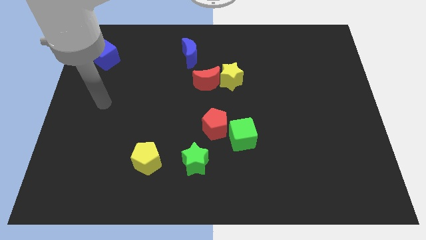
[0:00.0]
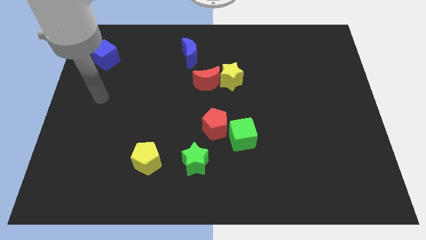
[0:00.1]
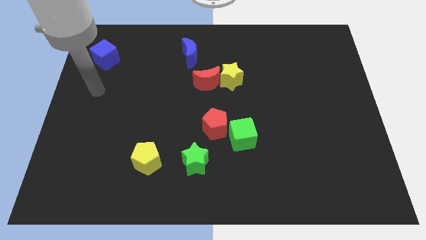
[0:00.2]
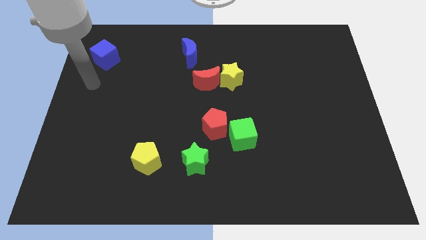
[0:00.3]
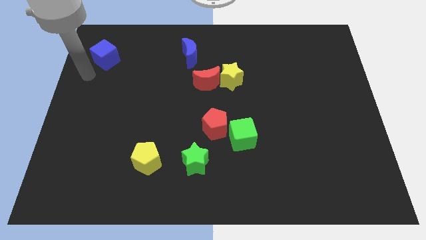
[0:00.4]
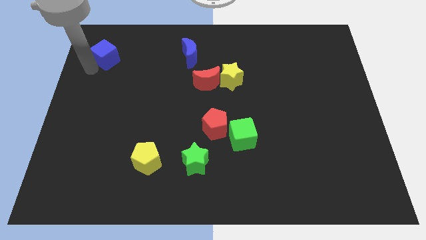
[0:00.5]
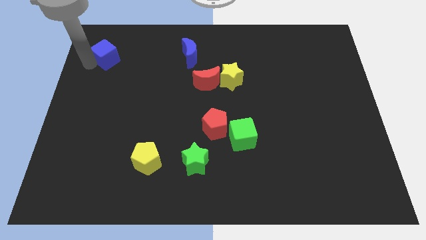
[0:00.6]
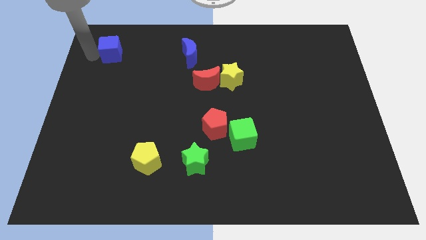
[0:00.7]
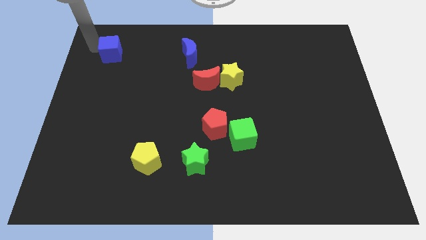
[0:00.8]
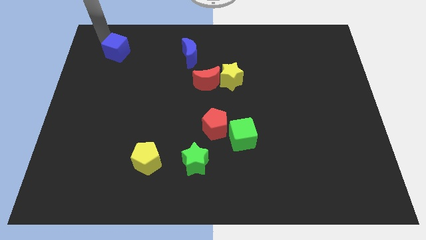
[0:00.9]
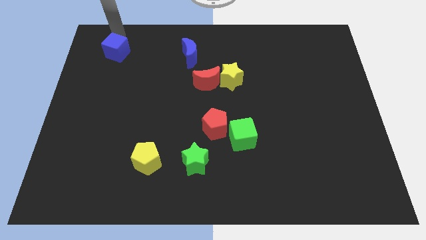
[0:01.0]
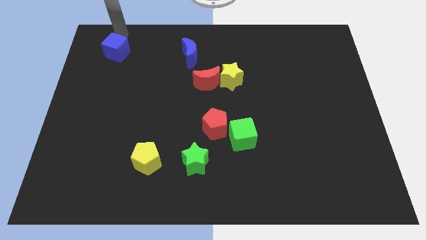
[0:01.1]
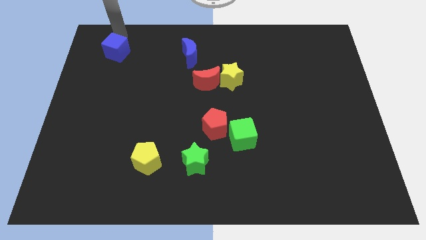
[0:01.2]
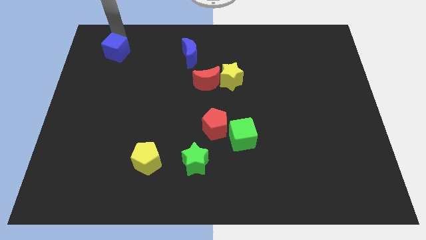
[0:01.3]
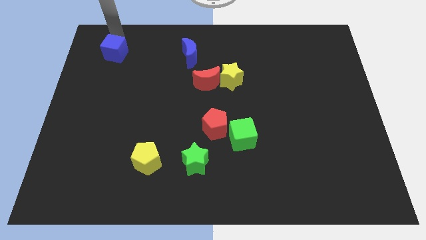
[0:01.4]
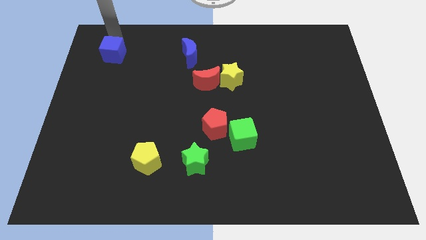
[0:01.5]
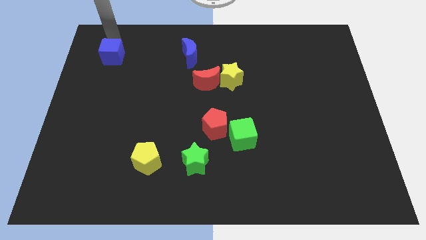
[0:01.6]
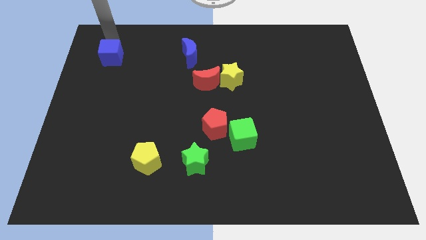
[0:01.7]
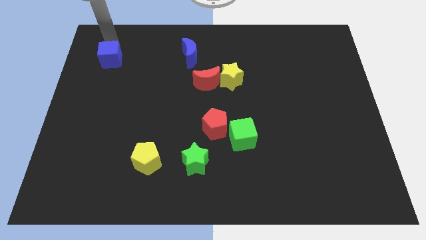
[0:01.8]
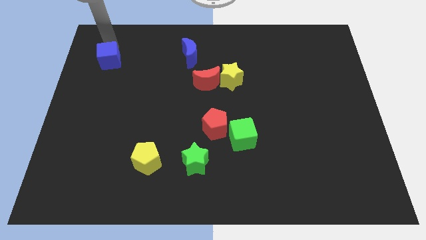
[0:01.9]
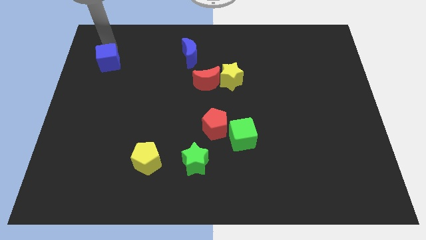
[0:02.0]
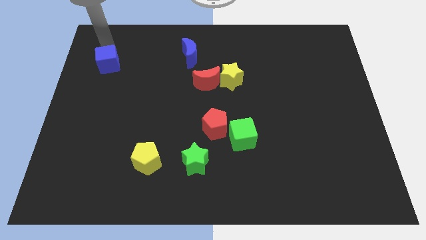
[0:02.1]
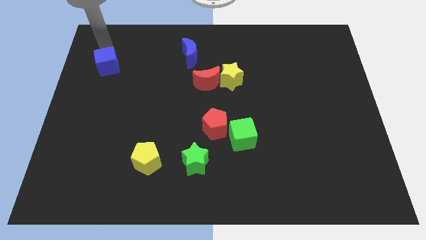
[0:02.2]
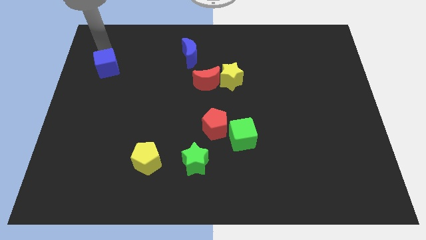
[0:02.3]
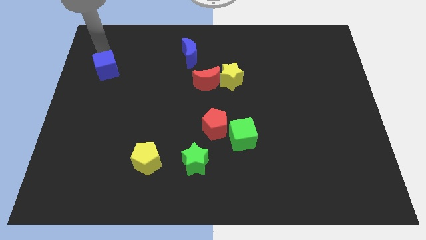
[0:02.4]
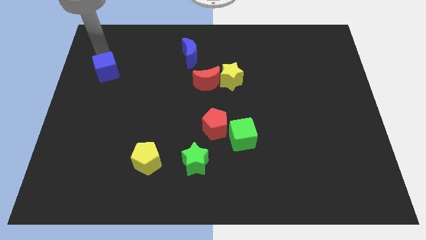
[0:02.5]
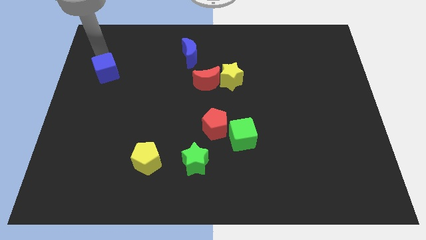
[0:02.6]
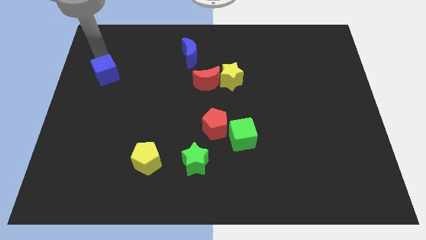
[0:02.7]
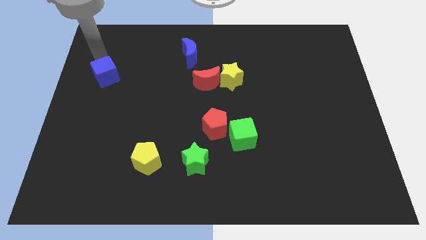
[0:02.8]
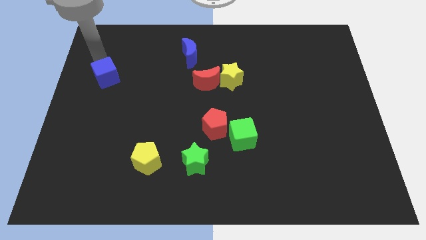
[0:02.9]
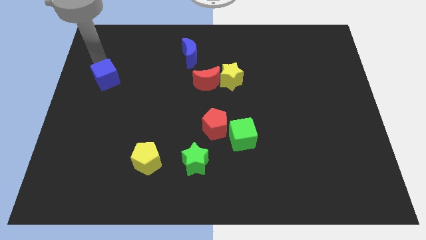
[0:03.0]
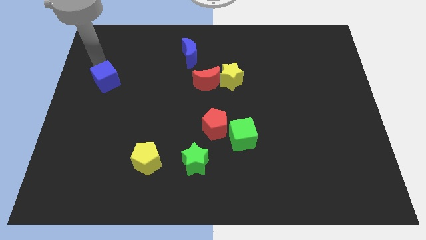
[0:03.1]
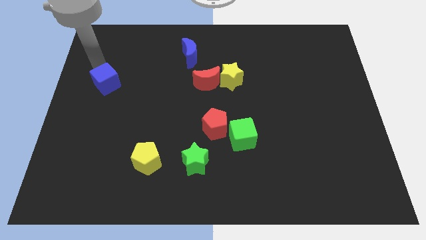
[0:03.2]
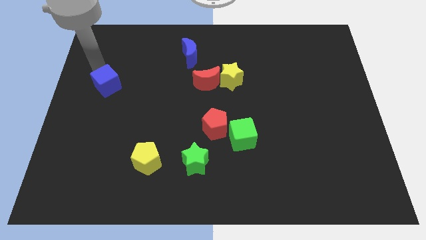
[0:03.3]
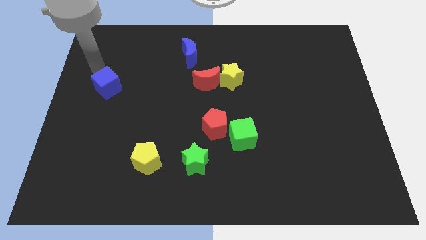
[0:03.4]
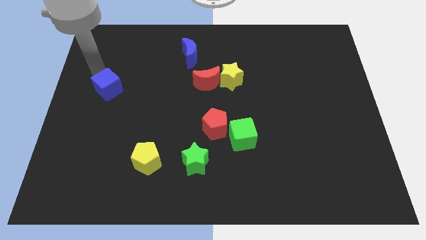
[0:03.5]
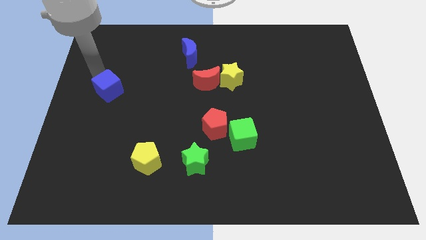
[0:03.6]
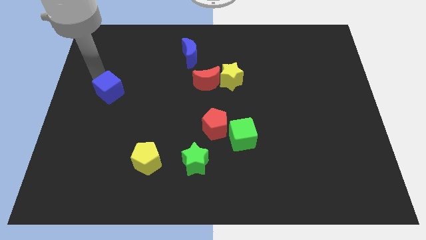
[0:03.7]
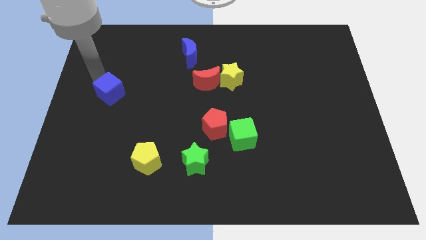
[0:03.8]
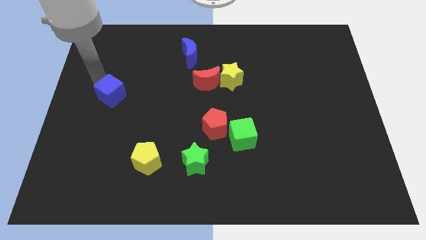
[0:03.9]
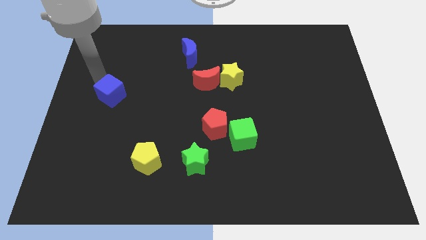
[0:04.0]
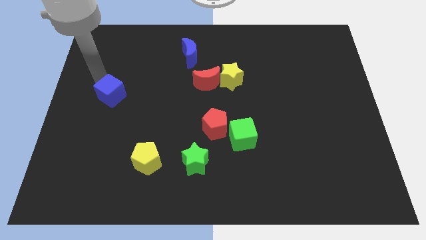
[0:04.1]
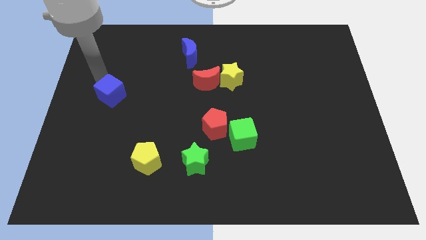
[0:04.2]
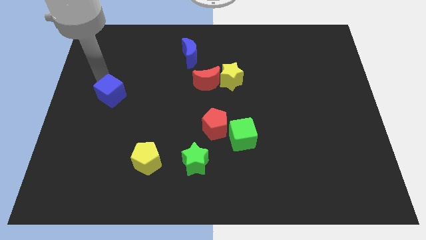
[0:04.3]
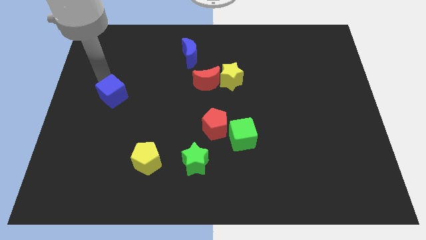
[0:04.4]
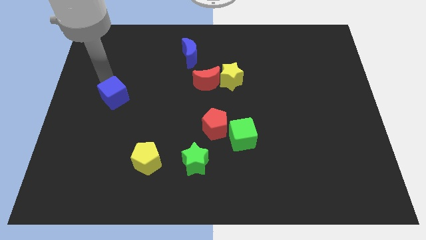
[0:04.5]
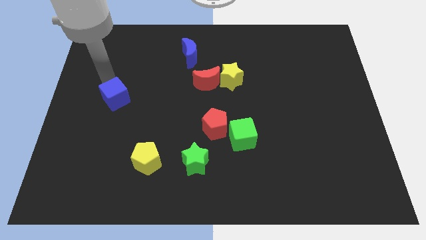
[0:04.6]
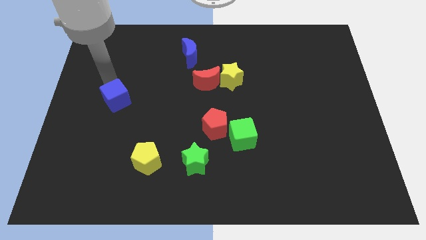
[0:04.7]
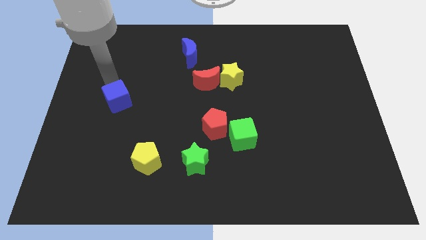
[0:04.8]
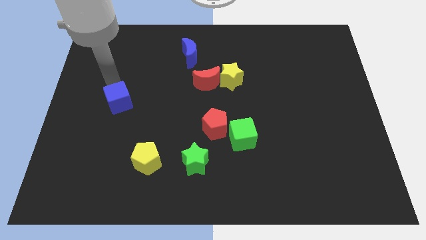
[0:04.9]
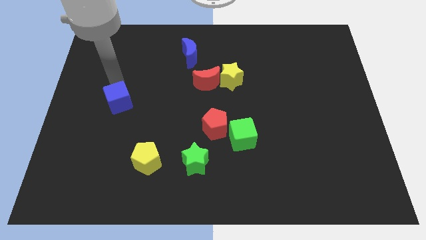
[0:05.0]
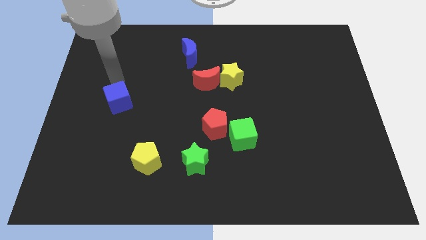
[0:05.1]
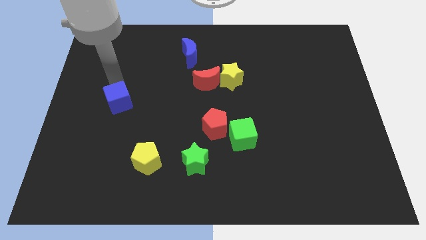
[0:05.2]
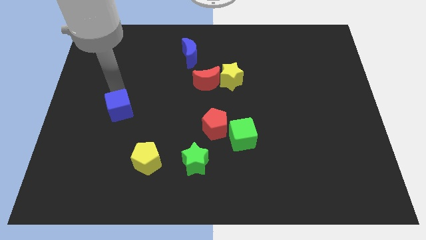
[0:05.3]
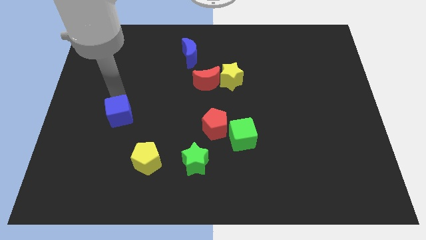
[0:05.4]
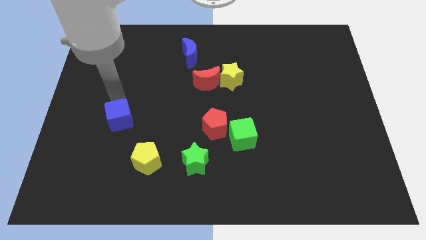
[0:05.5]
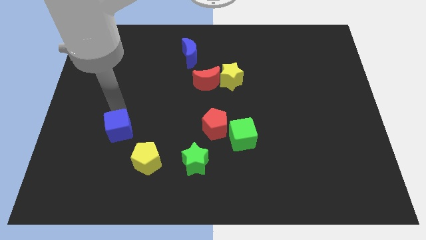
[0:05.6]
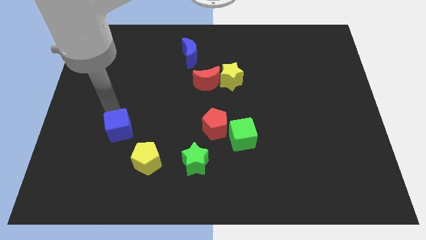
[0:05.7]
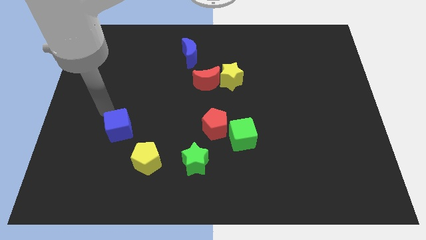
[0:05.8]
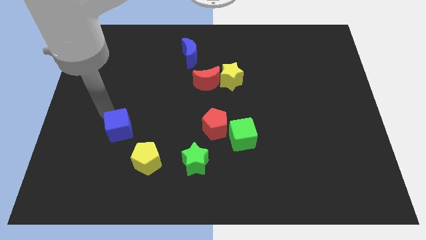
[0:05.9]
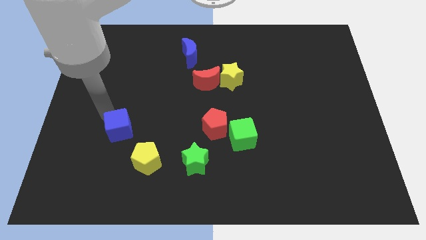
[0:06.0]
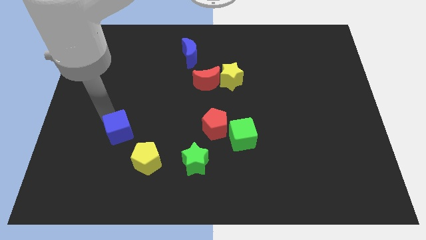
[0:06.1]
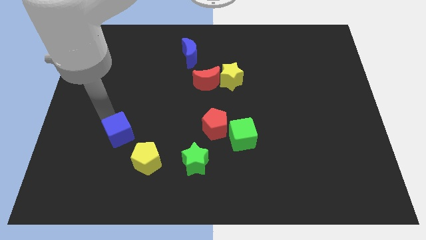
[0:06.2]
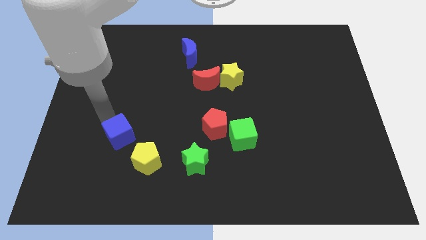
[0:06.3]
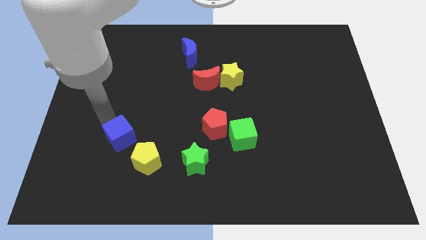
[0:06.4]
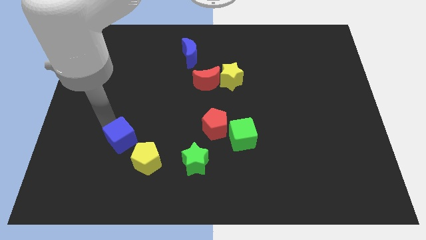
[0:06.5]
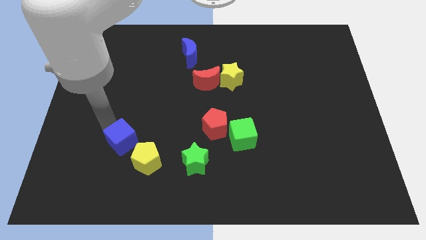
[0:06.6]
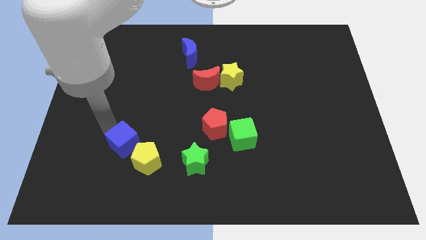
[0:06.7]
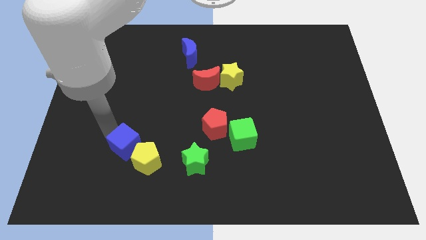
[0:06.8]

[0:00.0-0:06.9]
move the blue cube next to the yellow pentagon
